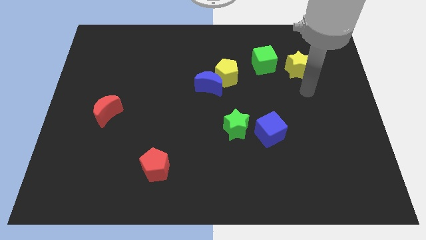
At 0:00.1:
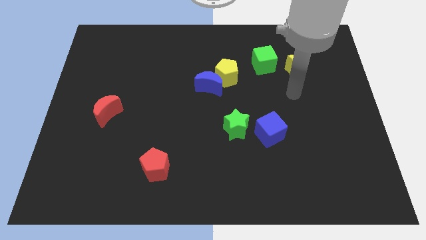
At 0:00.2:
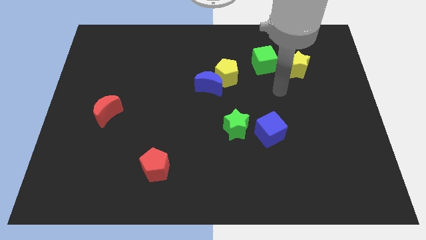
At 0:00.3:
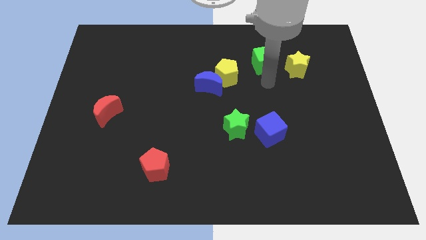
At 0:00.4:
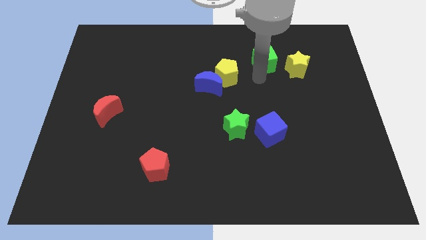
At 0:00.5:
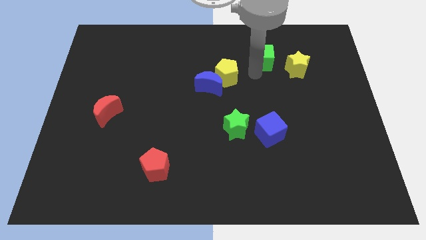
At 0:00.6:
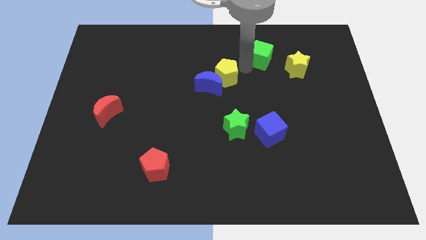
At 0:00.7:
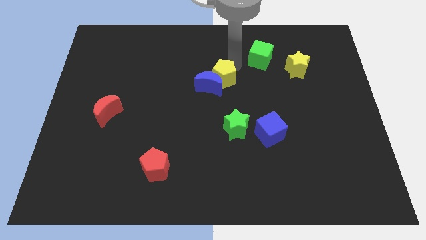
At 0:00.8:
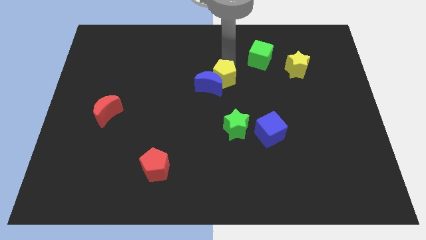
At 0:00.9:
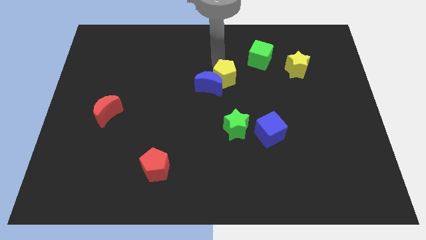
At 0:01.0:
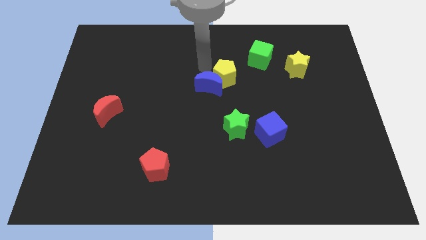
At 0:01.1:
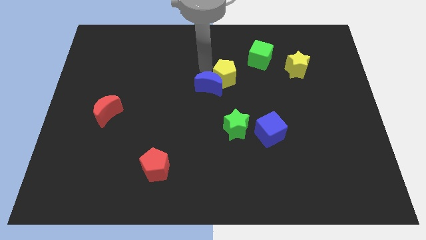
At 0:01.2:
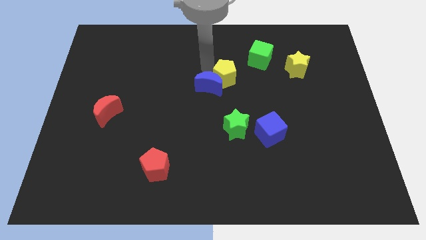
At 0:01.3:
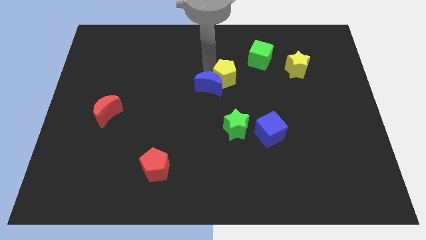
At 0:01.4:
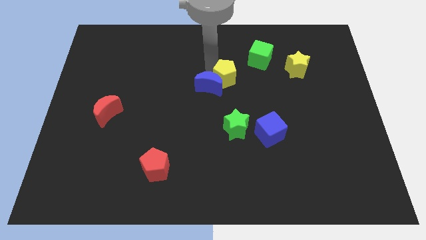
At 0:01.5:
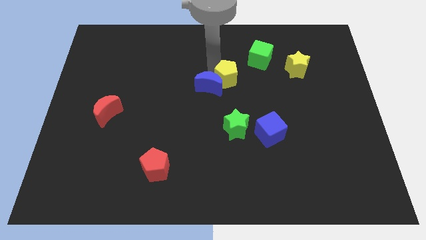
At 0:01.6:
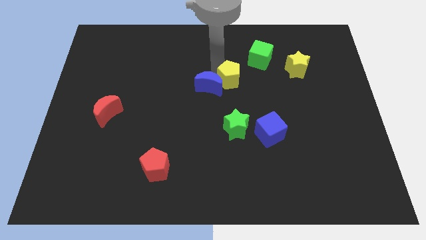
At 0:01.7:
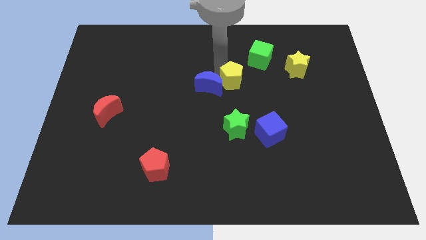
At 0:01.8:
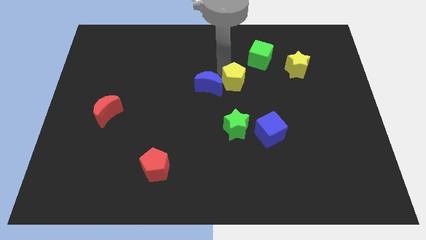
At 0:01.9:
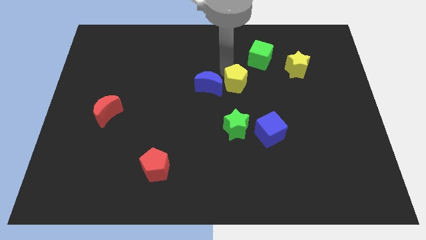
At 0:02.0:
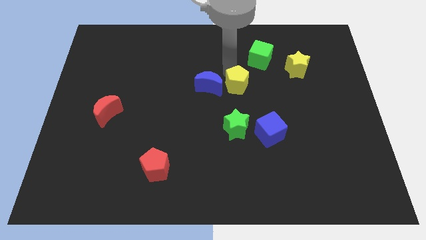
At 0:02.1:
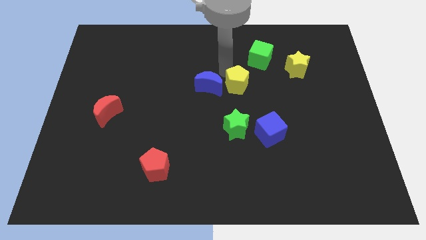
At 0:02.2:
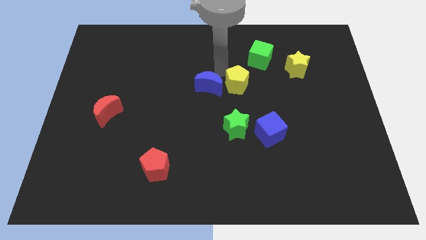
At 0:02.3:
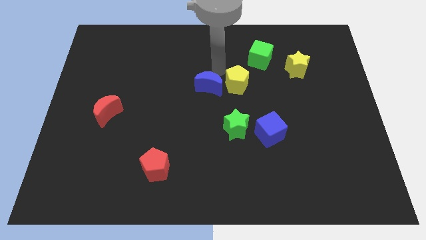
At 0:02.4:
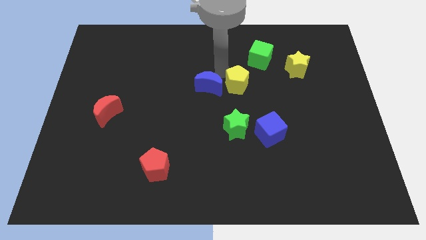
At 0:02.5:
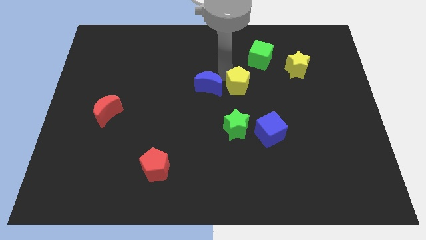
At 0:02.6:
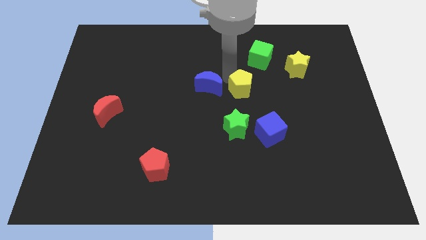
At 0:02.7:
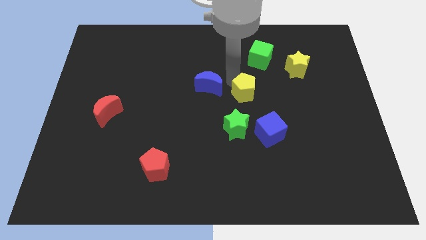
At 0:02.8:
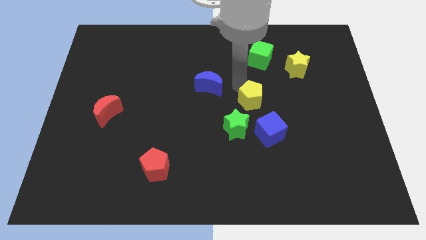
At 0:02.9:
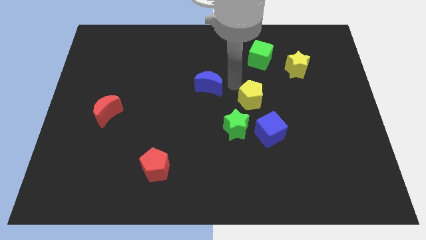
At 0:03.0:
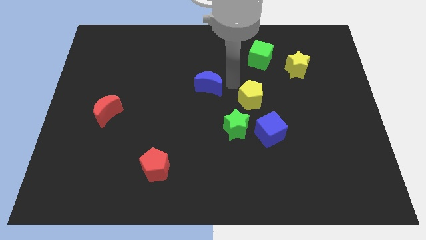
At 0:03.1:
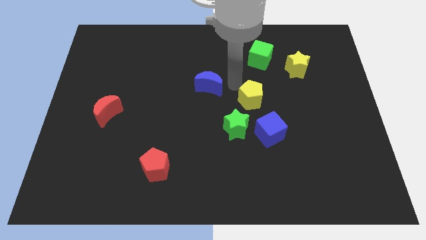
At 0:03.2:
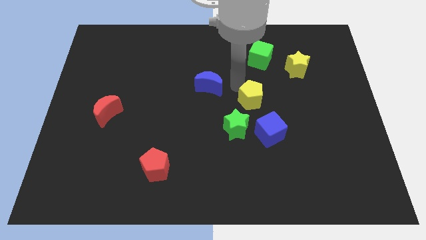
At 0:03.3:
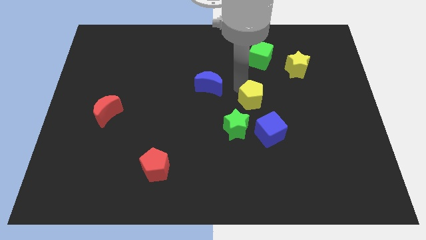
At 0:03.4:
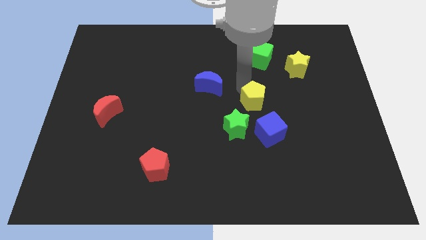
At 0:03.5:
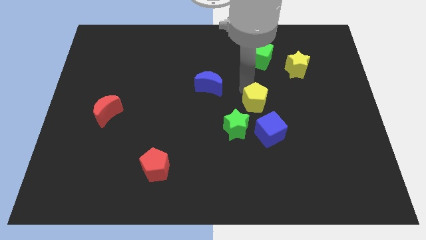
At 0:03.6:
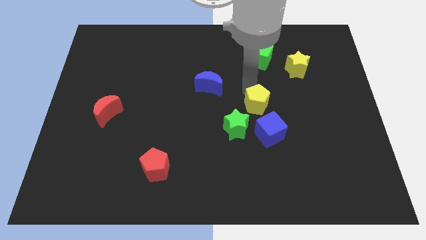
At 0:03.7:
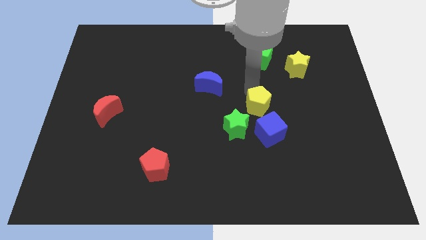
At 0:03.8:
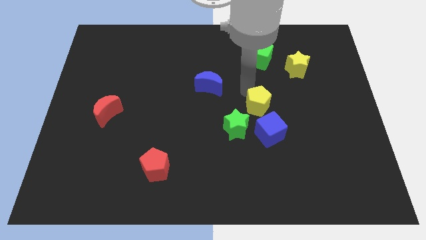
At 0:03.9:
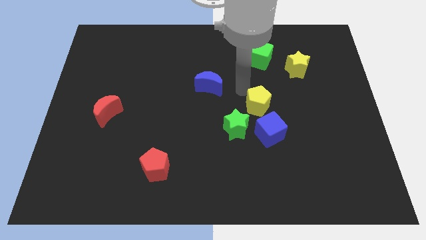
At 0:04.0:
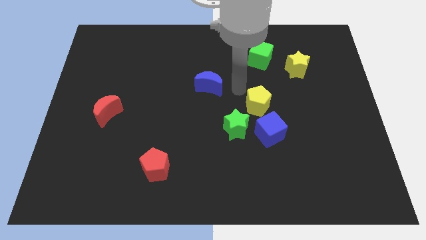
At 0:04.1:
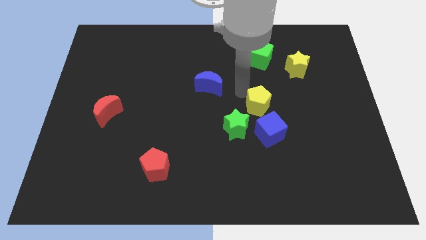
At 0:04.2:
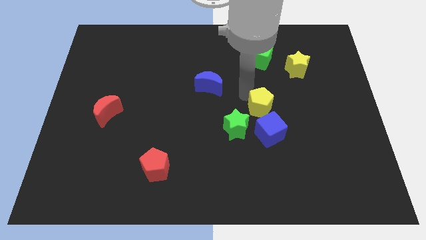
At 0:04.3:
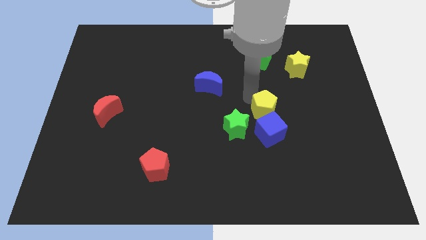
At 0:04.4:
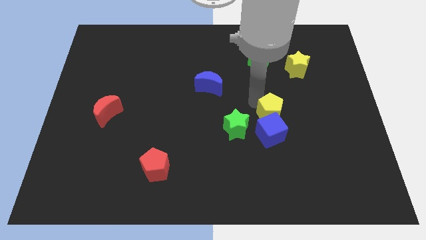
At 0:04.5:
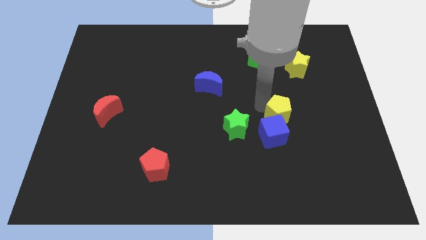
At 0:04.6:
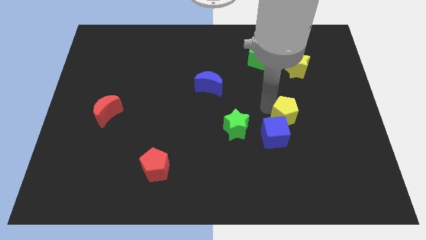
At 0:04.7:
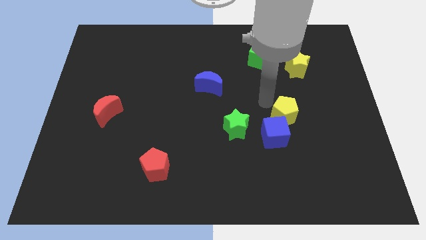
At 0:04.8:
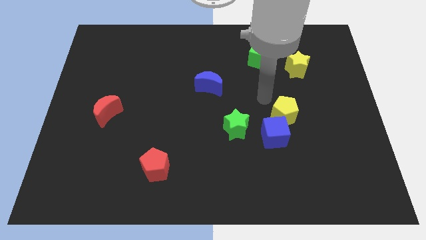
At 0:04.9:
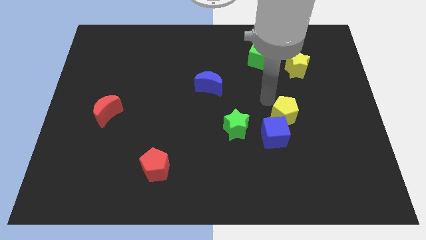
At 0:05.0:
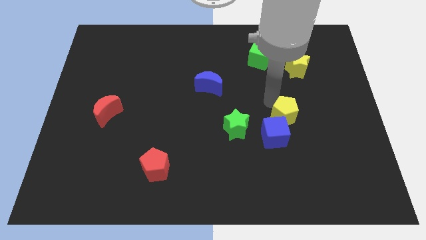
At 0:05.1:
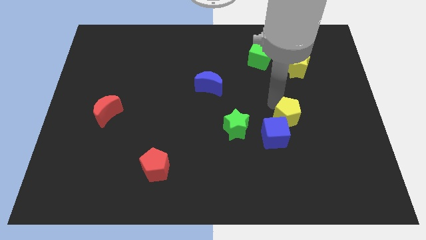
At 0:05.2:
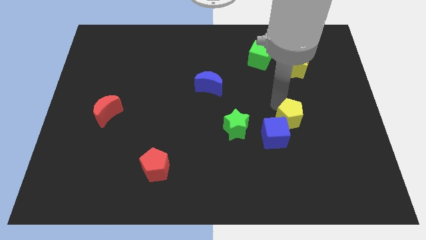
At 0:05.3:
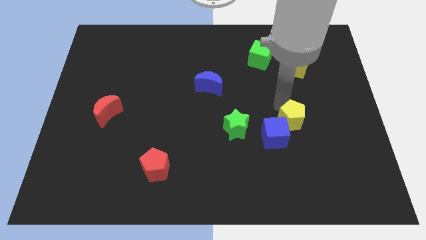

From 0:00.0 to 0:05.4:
move the yellow pentagon downwards and right diagonally

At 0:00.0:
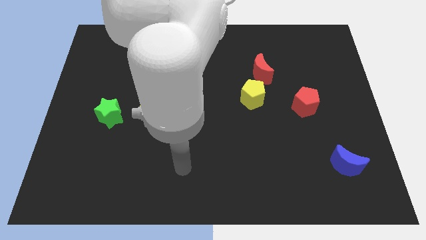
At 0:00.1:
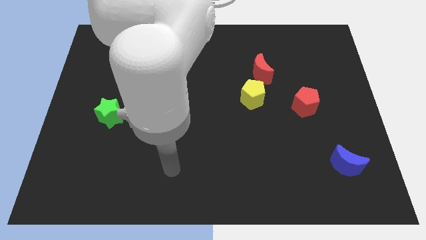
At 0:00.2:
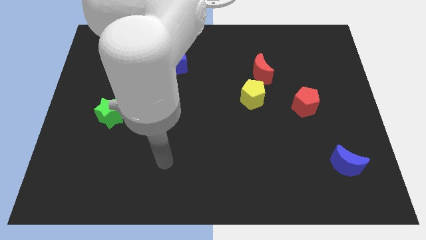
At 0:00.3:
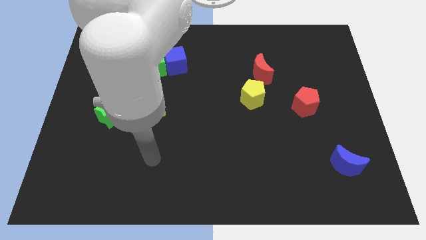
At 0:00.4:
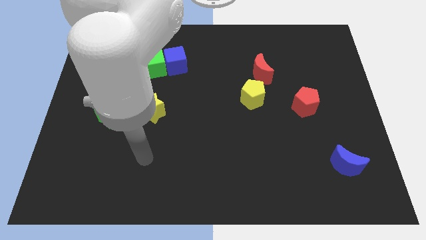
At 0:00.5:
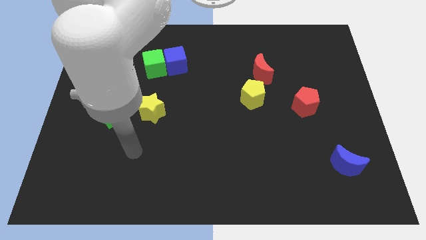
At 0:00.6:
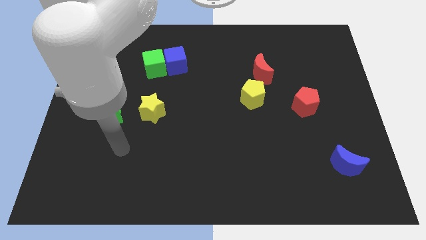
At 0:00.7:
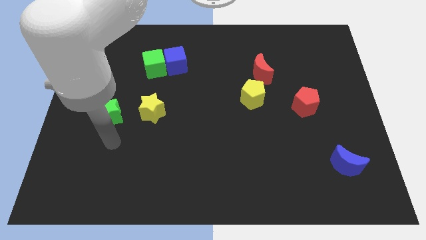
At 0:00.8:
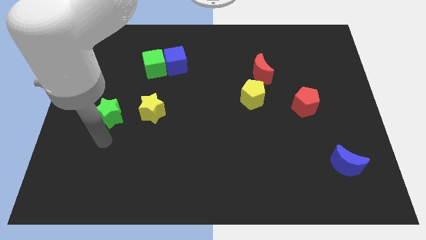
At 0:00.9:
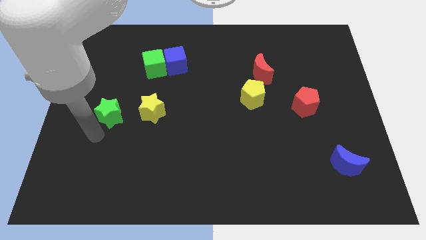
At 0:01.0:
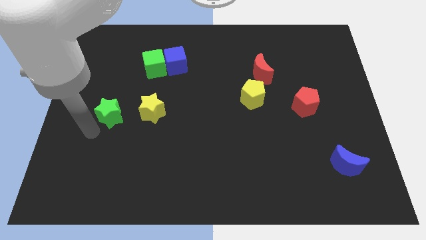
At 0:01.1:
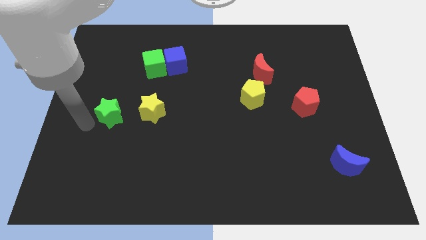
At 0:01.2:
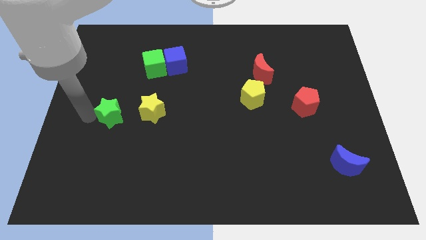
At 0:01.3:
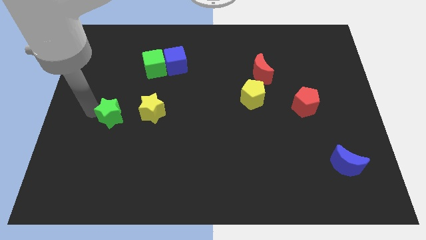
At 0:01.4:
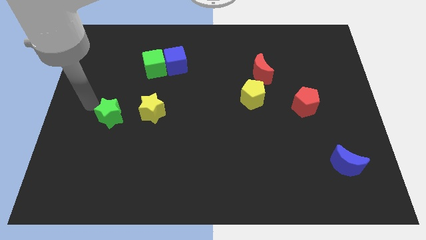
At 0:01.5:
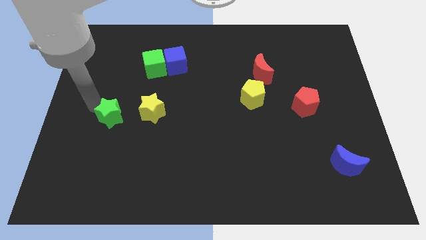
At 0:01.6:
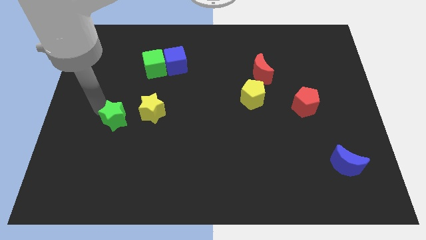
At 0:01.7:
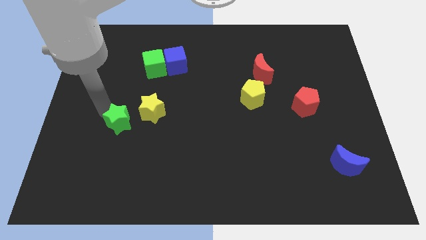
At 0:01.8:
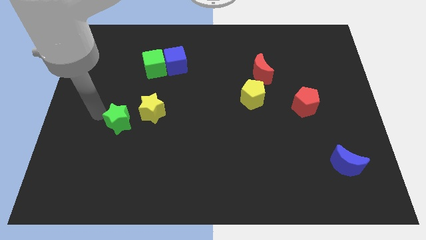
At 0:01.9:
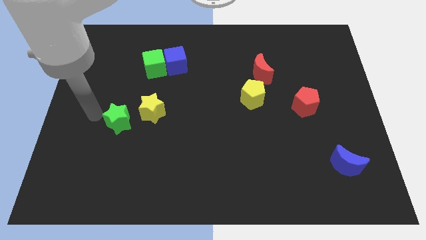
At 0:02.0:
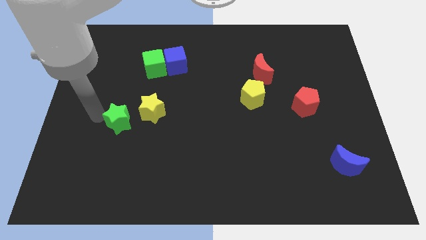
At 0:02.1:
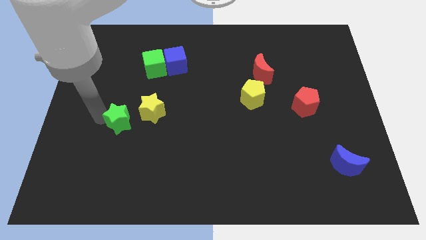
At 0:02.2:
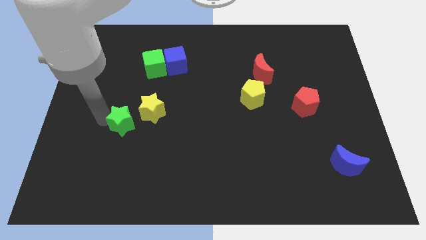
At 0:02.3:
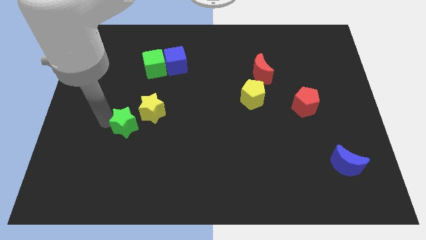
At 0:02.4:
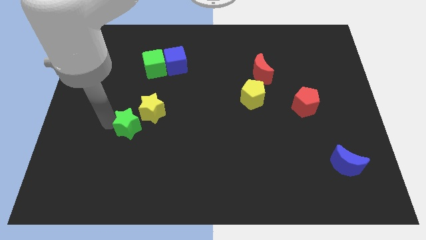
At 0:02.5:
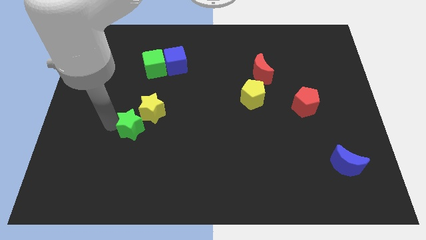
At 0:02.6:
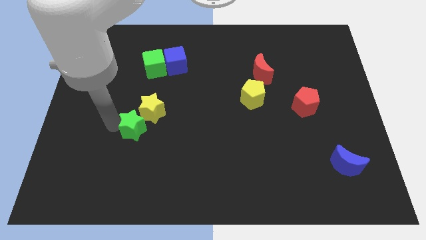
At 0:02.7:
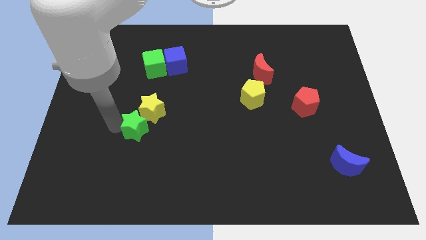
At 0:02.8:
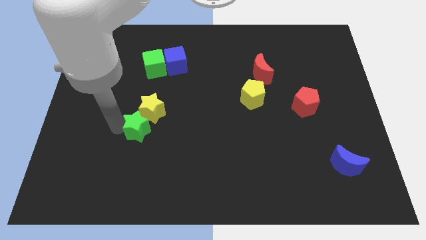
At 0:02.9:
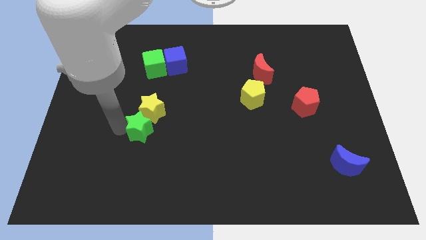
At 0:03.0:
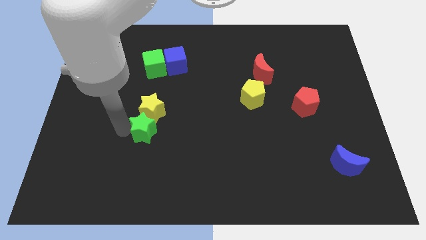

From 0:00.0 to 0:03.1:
move the green star somewhat right
